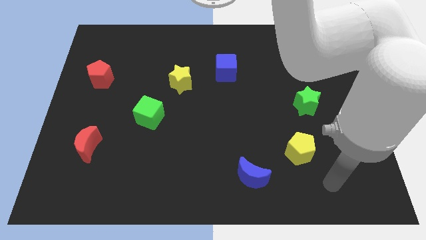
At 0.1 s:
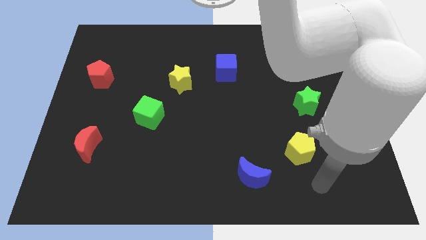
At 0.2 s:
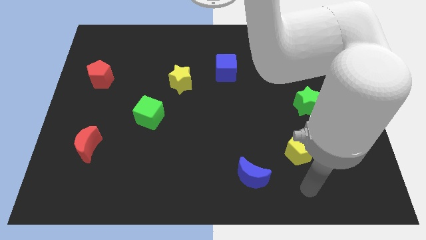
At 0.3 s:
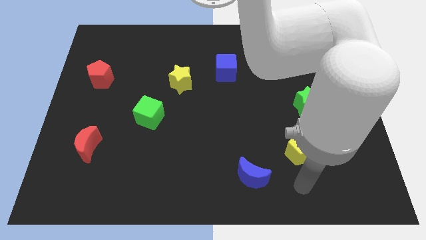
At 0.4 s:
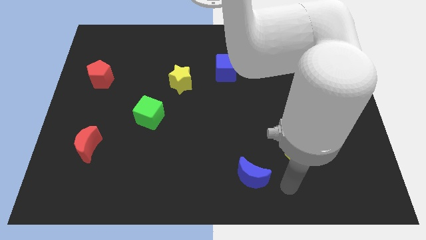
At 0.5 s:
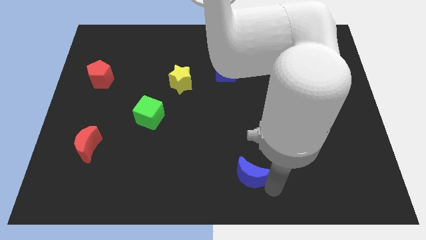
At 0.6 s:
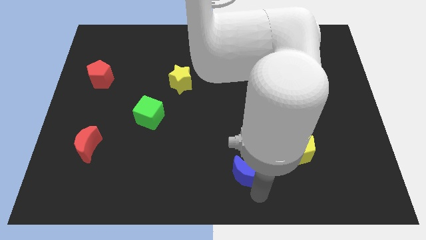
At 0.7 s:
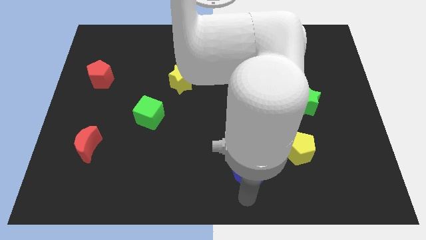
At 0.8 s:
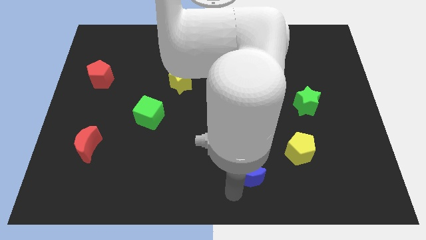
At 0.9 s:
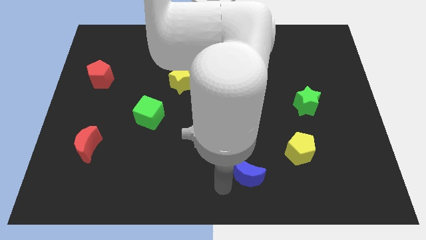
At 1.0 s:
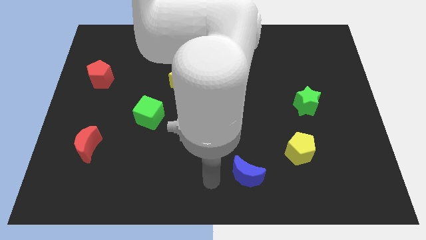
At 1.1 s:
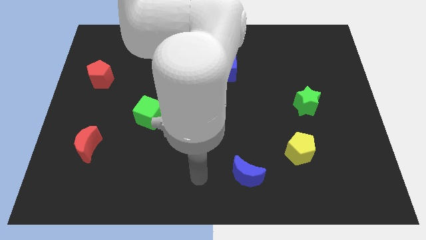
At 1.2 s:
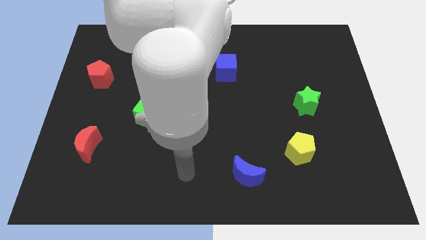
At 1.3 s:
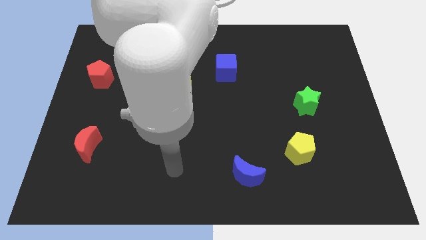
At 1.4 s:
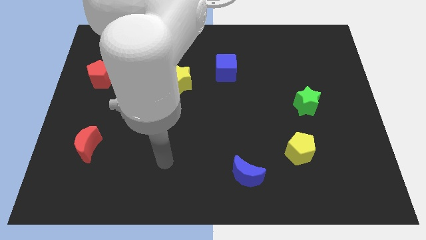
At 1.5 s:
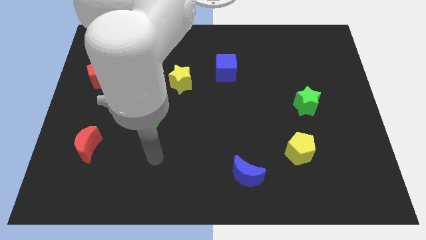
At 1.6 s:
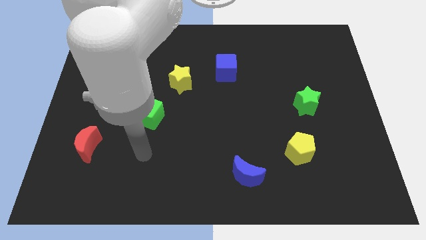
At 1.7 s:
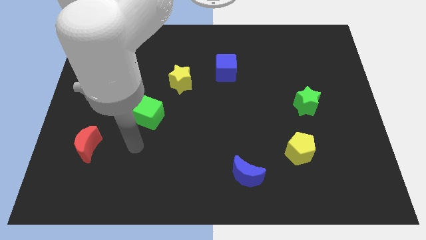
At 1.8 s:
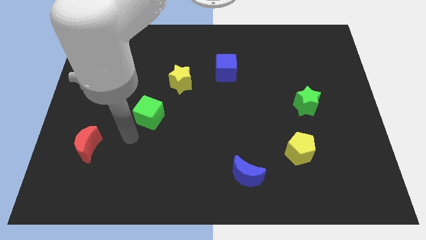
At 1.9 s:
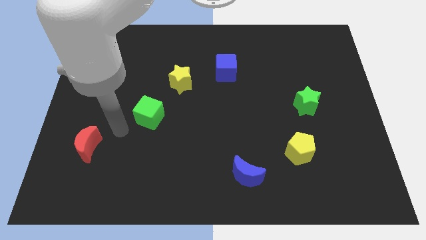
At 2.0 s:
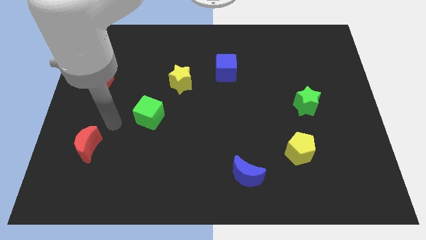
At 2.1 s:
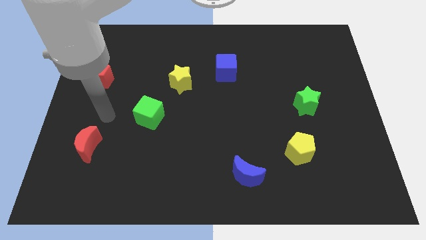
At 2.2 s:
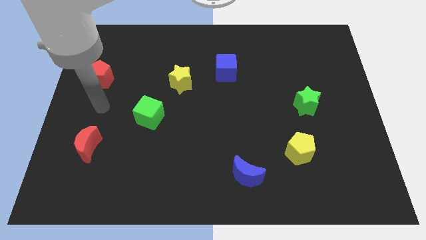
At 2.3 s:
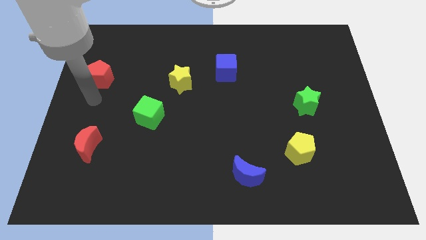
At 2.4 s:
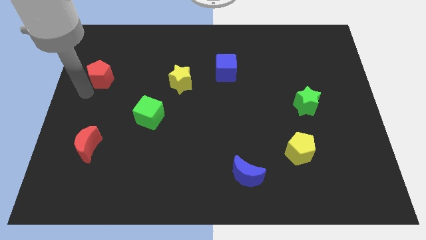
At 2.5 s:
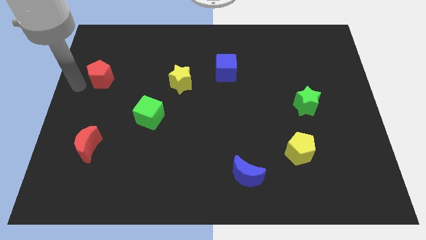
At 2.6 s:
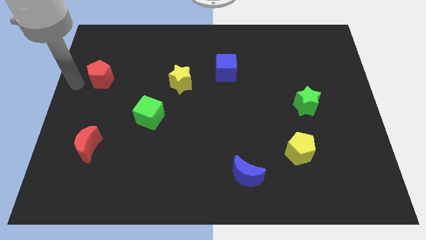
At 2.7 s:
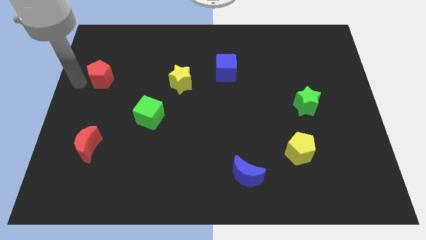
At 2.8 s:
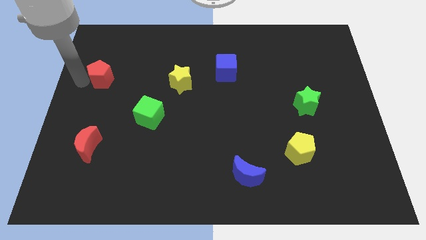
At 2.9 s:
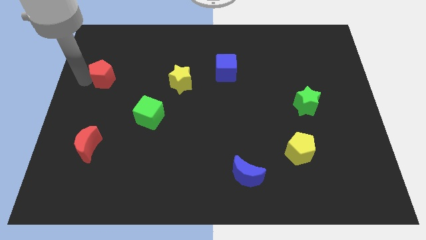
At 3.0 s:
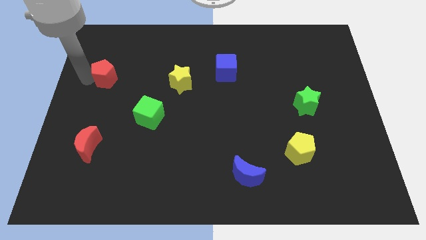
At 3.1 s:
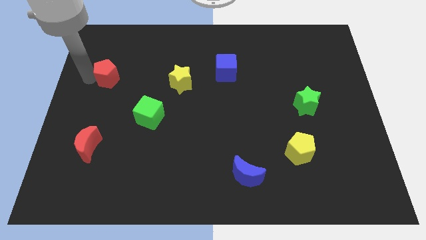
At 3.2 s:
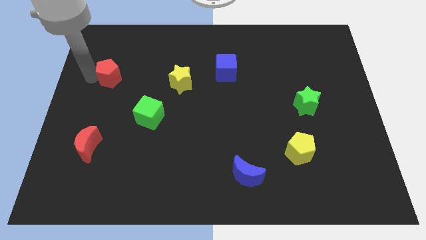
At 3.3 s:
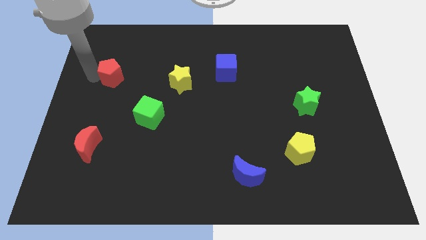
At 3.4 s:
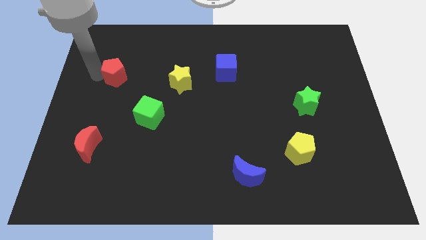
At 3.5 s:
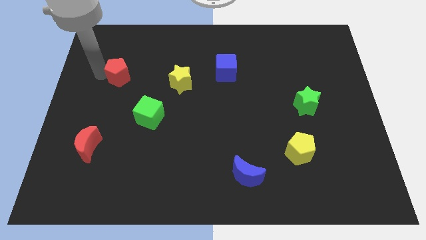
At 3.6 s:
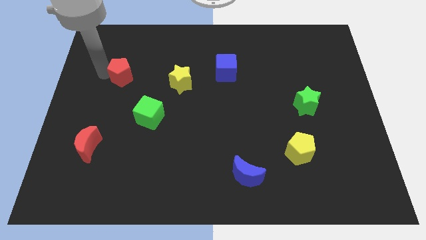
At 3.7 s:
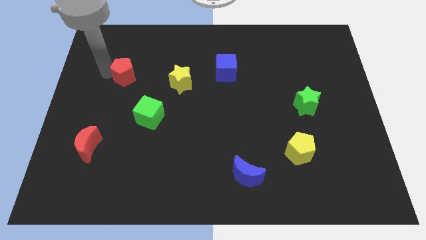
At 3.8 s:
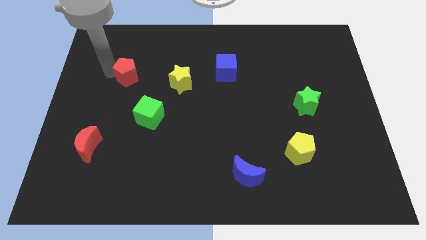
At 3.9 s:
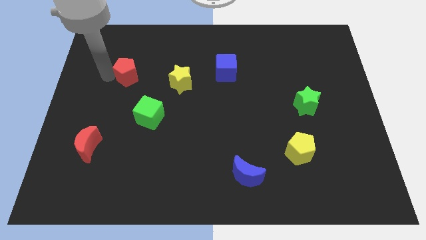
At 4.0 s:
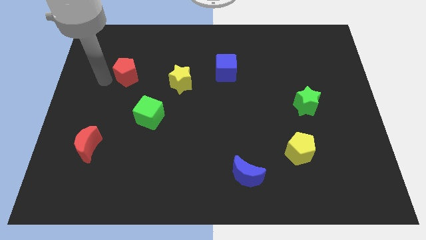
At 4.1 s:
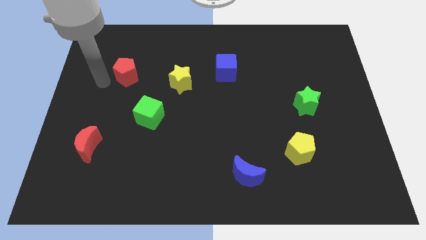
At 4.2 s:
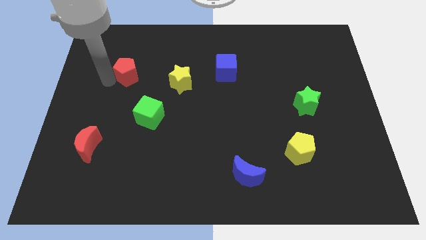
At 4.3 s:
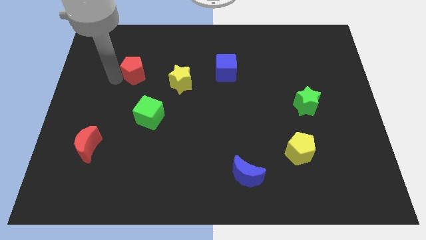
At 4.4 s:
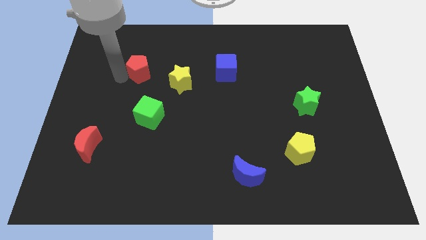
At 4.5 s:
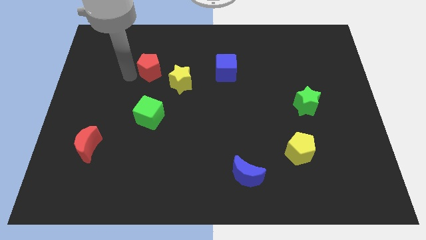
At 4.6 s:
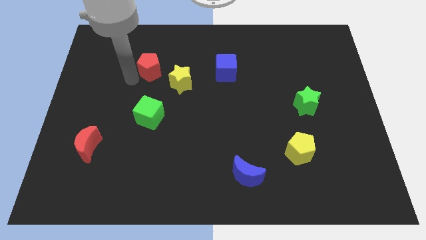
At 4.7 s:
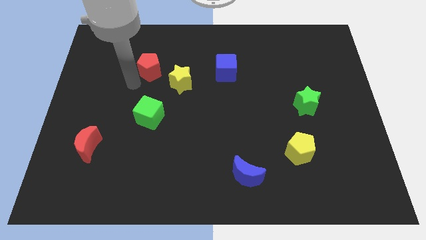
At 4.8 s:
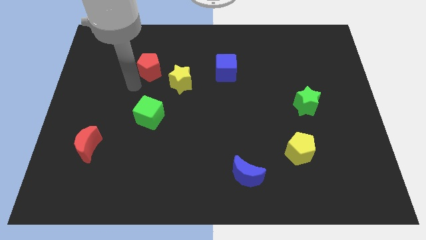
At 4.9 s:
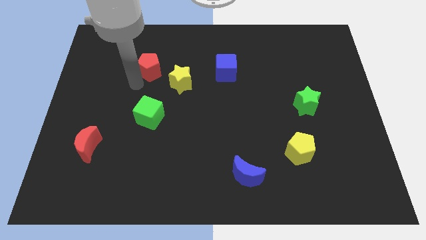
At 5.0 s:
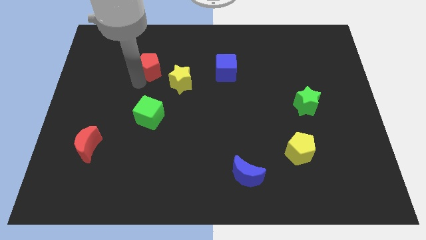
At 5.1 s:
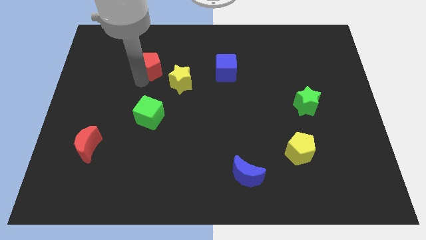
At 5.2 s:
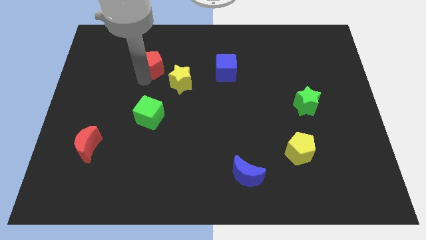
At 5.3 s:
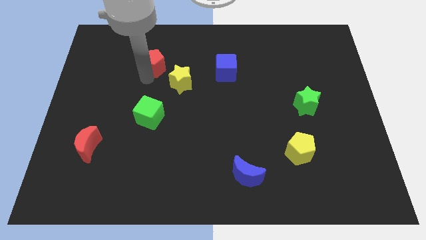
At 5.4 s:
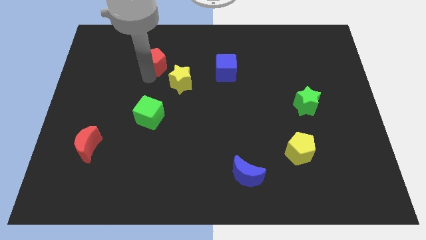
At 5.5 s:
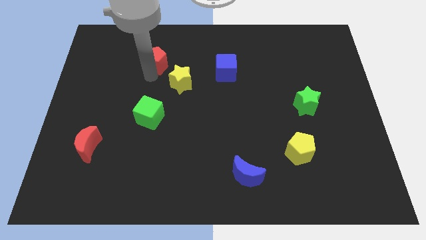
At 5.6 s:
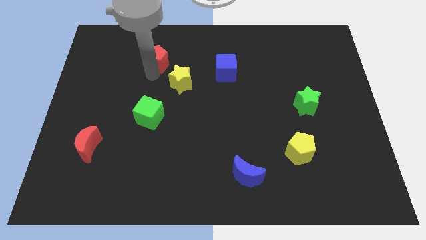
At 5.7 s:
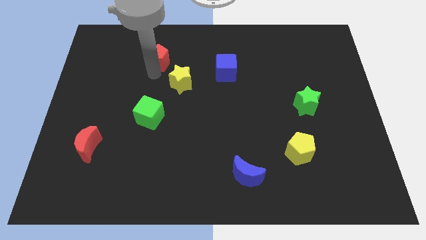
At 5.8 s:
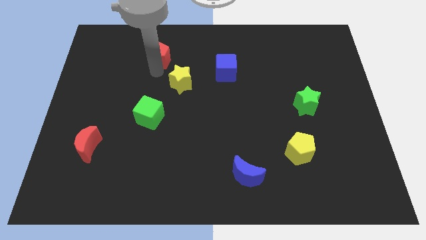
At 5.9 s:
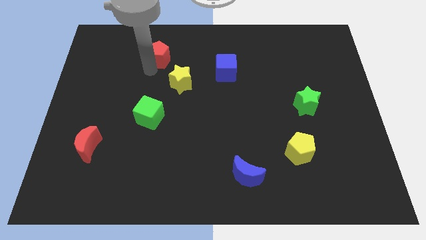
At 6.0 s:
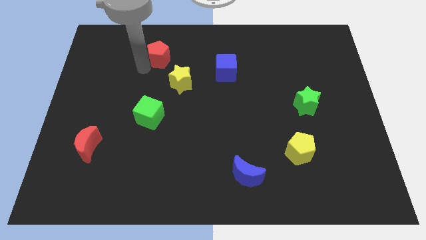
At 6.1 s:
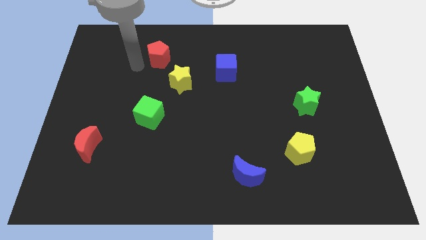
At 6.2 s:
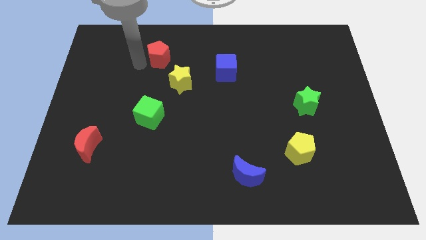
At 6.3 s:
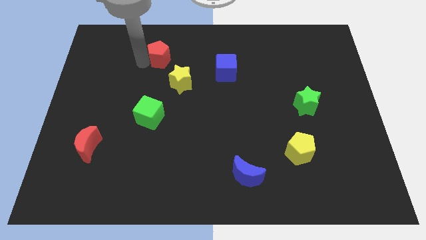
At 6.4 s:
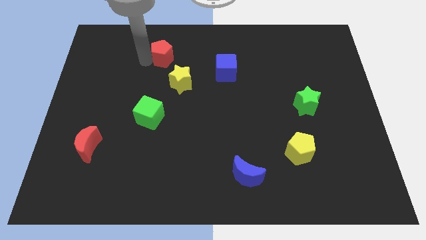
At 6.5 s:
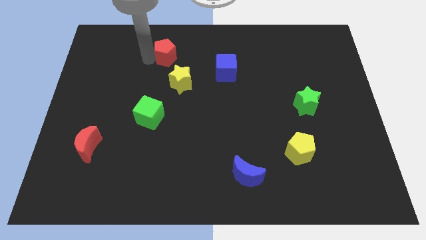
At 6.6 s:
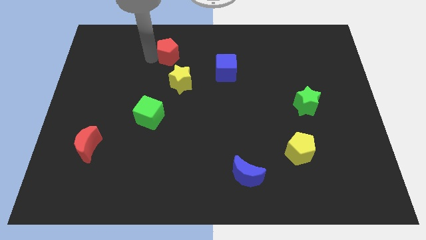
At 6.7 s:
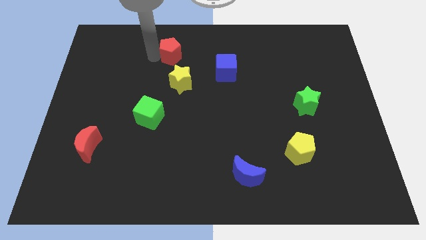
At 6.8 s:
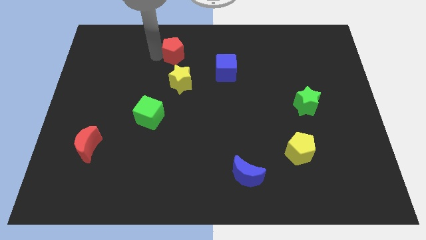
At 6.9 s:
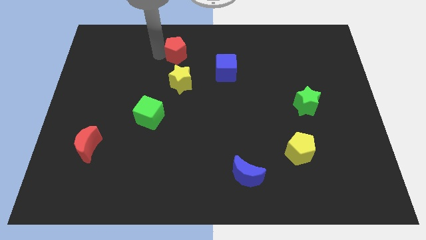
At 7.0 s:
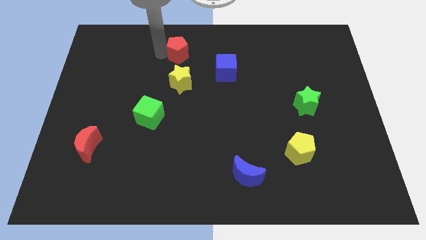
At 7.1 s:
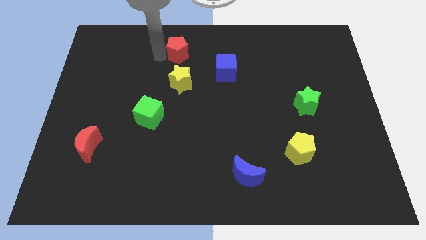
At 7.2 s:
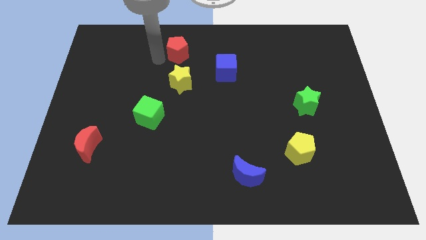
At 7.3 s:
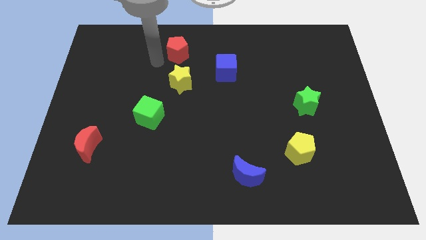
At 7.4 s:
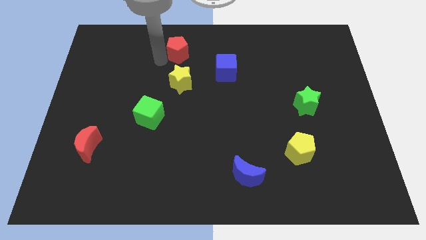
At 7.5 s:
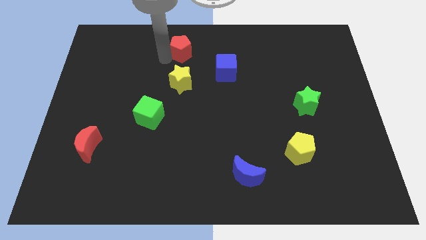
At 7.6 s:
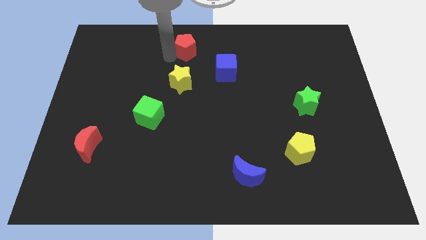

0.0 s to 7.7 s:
slide the red pentagon to the towards your base
